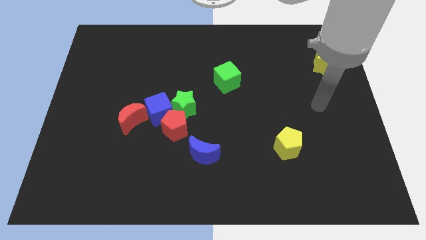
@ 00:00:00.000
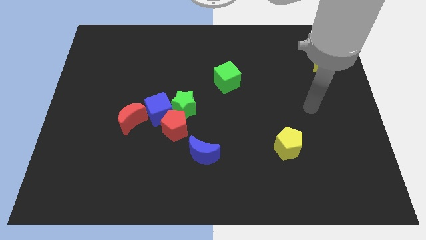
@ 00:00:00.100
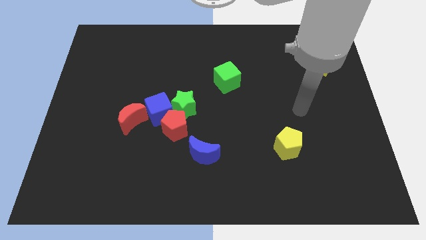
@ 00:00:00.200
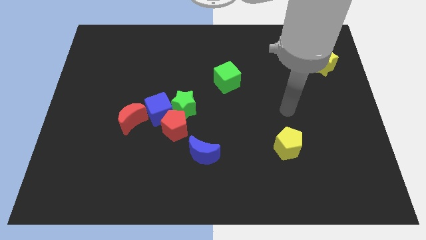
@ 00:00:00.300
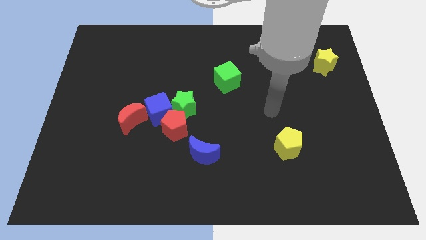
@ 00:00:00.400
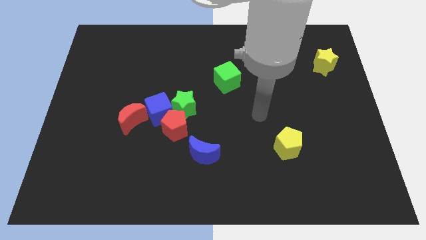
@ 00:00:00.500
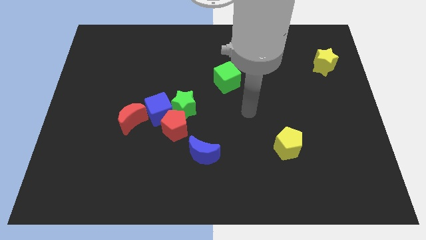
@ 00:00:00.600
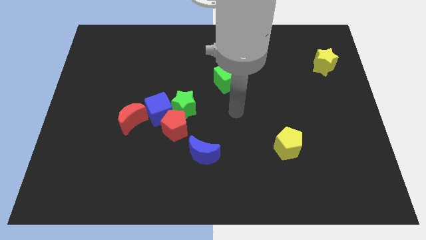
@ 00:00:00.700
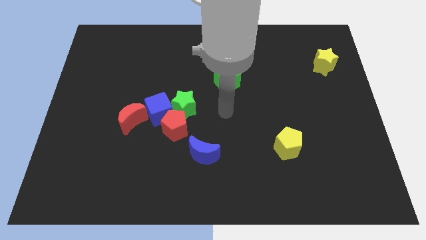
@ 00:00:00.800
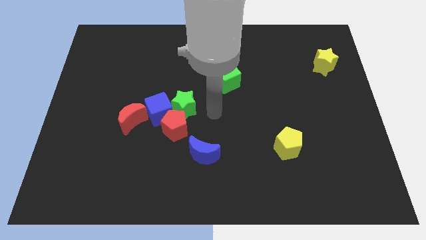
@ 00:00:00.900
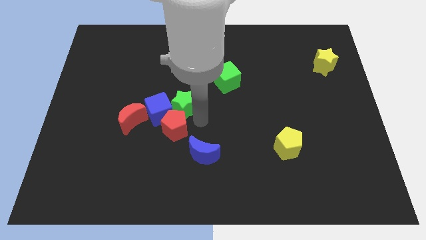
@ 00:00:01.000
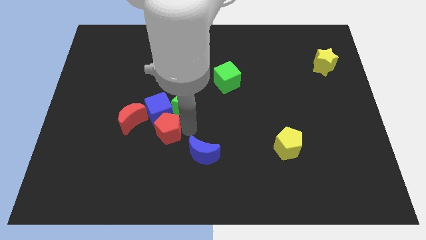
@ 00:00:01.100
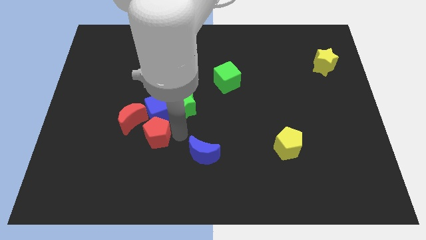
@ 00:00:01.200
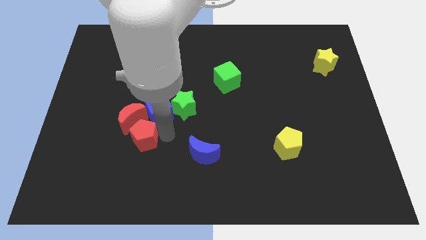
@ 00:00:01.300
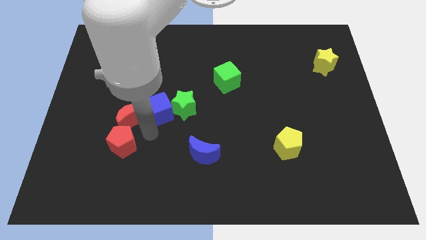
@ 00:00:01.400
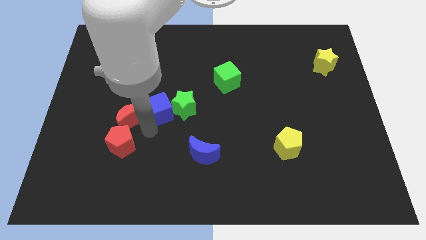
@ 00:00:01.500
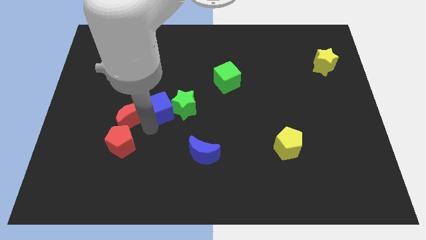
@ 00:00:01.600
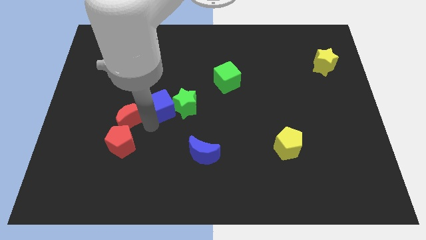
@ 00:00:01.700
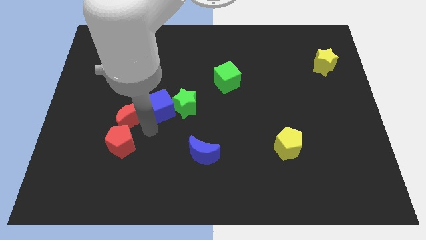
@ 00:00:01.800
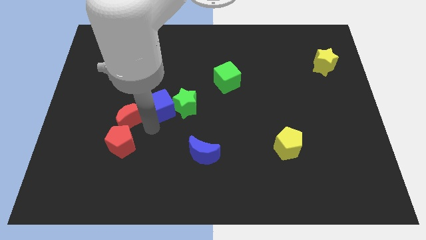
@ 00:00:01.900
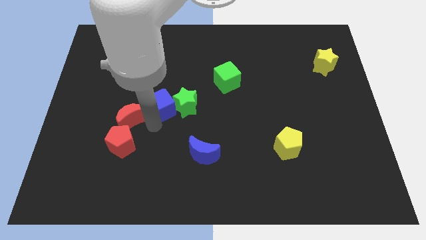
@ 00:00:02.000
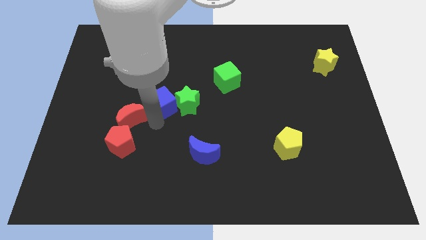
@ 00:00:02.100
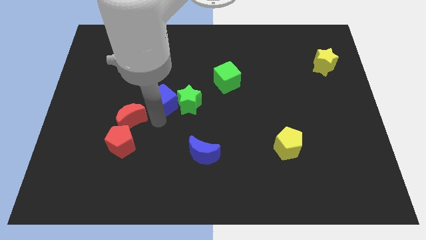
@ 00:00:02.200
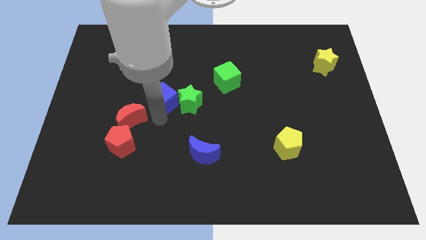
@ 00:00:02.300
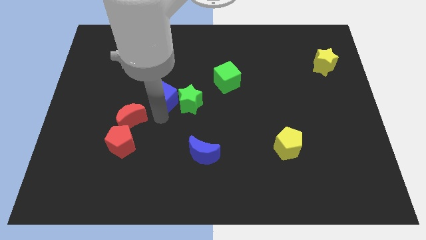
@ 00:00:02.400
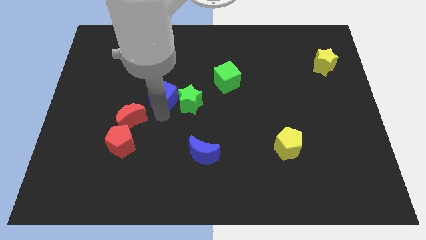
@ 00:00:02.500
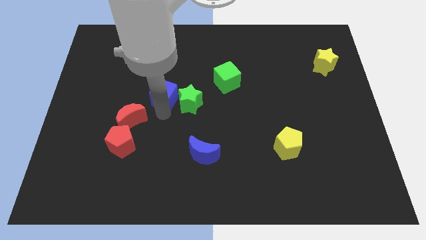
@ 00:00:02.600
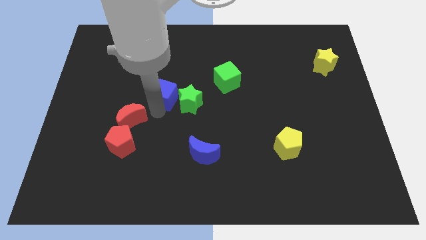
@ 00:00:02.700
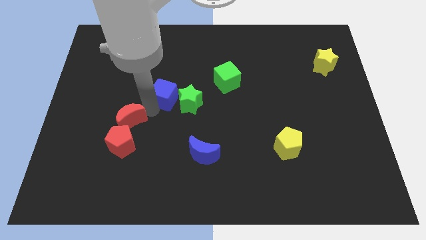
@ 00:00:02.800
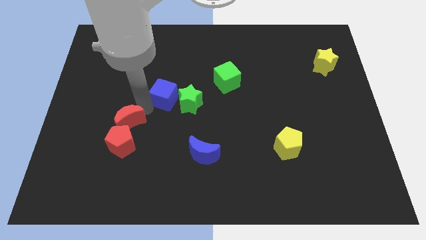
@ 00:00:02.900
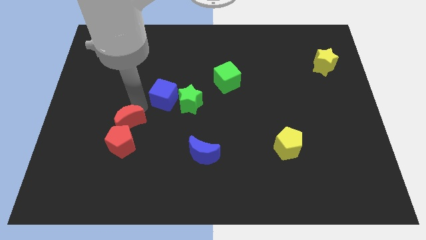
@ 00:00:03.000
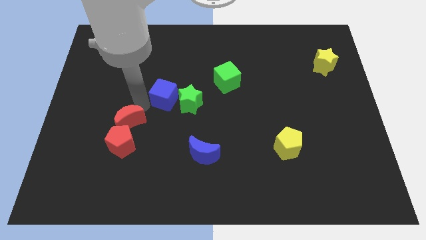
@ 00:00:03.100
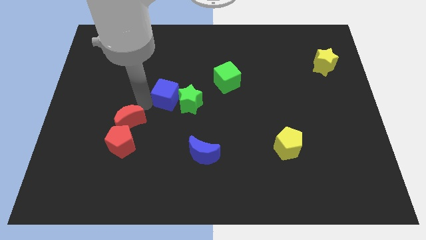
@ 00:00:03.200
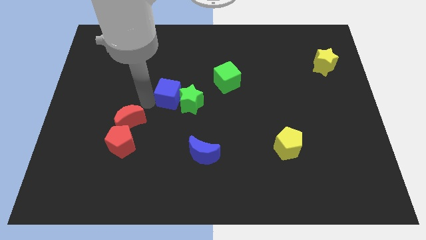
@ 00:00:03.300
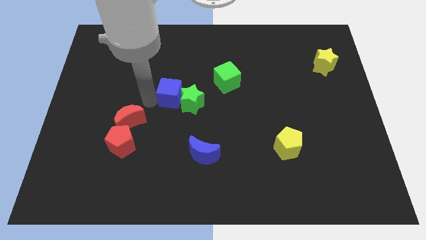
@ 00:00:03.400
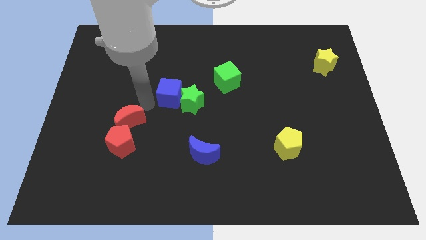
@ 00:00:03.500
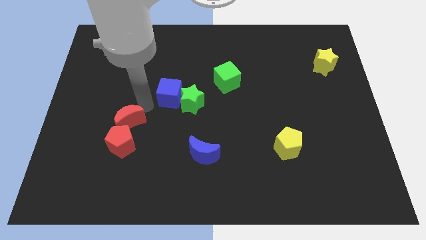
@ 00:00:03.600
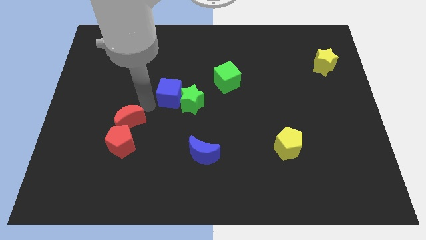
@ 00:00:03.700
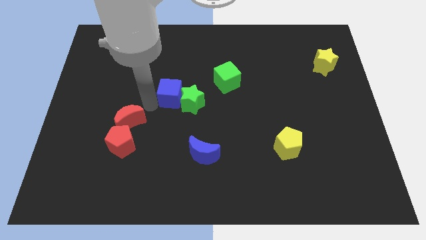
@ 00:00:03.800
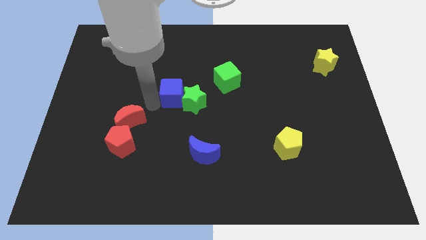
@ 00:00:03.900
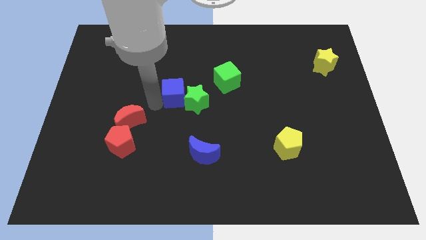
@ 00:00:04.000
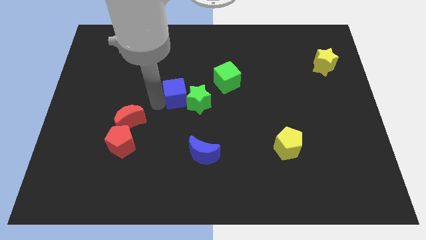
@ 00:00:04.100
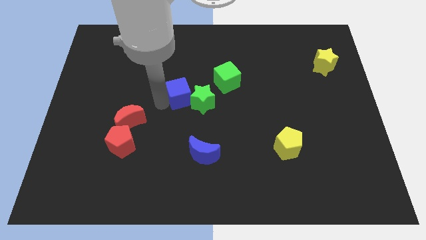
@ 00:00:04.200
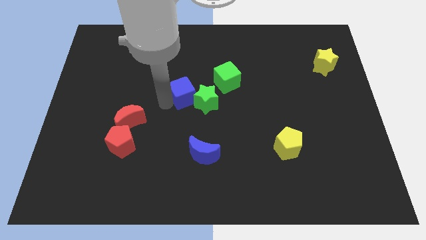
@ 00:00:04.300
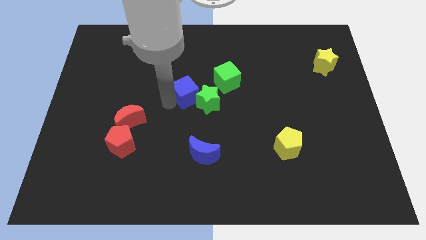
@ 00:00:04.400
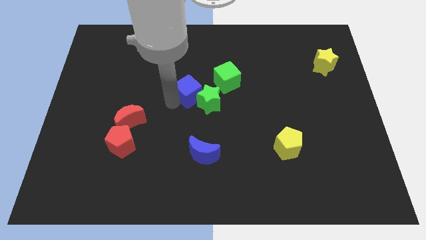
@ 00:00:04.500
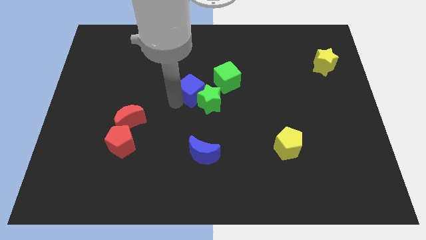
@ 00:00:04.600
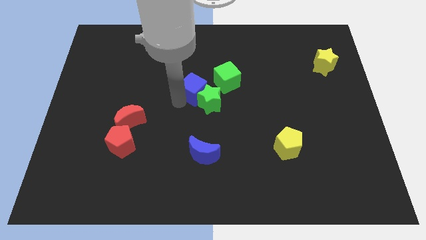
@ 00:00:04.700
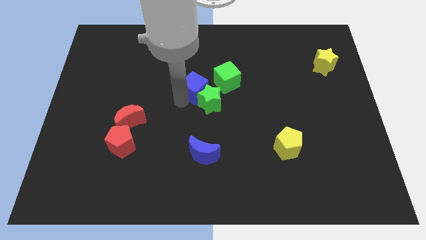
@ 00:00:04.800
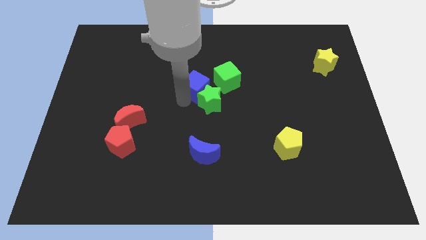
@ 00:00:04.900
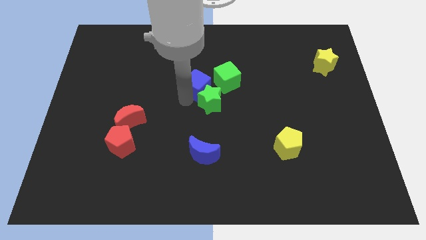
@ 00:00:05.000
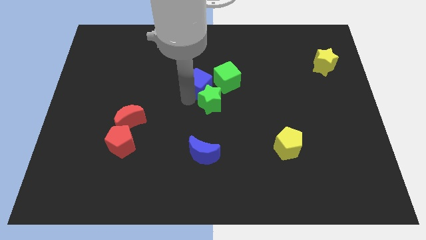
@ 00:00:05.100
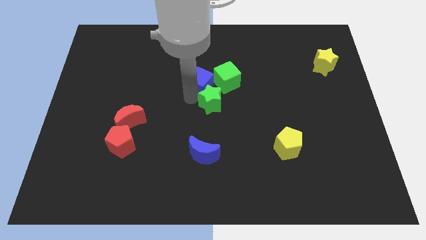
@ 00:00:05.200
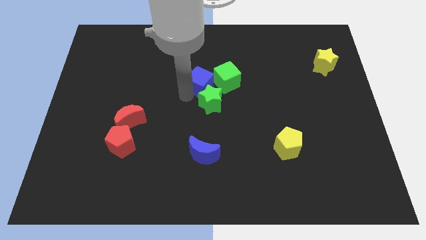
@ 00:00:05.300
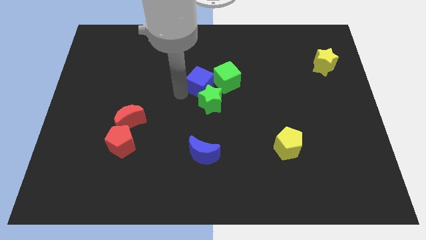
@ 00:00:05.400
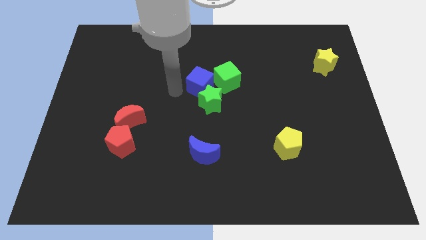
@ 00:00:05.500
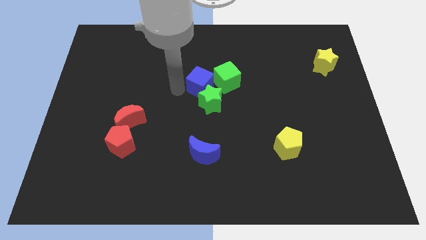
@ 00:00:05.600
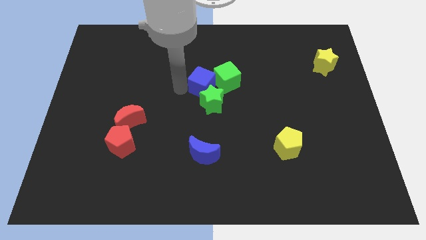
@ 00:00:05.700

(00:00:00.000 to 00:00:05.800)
push the blue cube towards the green cube

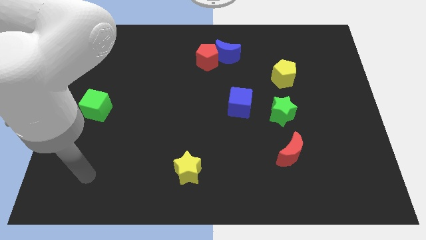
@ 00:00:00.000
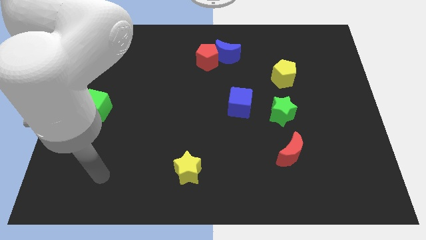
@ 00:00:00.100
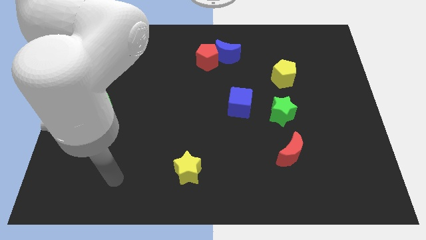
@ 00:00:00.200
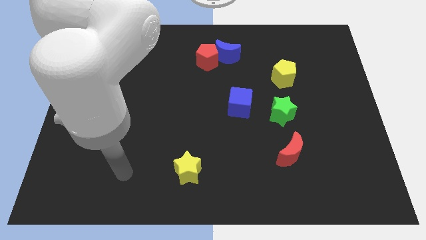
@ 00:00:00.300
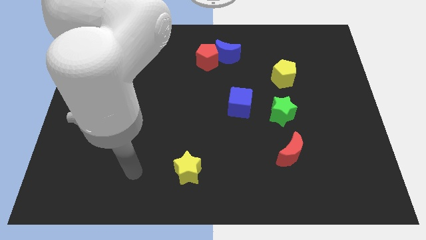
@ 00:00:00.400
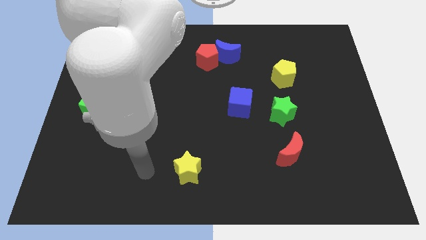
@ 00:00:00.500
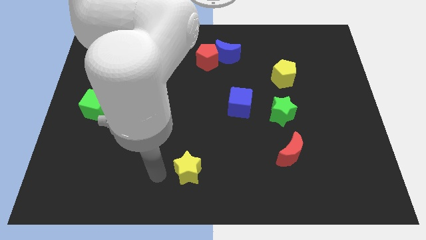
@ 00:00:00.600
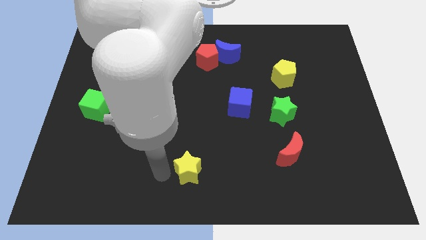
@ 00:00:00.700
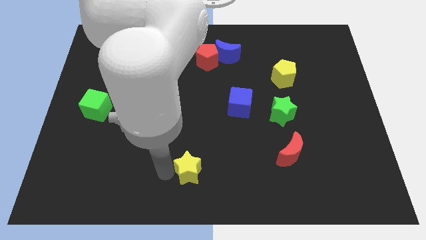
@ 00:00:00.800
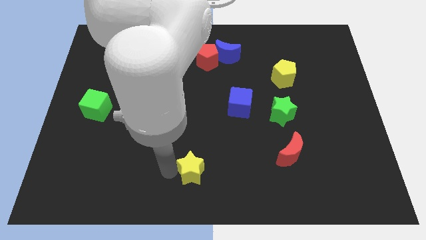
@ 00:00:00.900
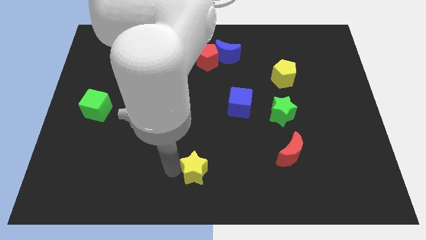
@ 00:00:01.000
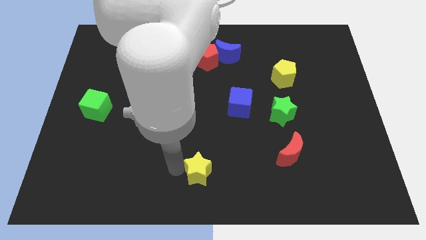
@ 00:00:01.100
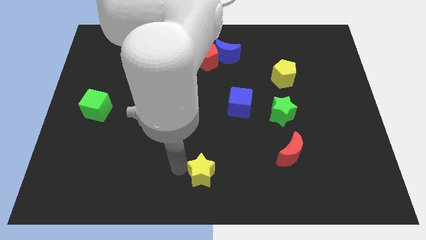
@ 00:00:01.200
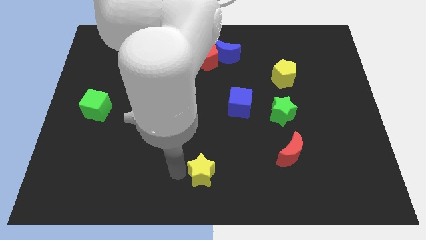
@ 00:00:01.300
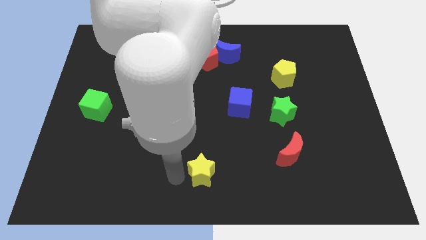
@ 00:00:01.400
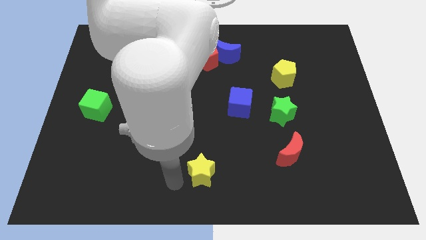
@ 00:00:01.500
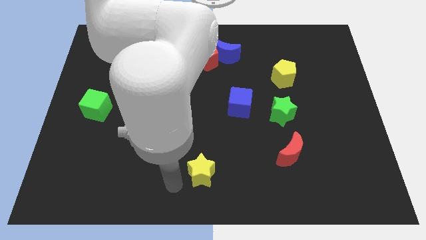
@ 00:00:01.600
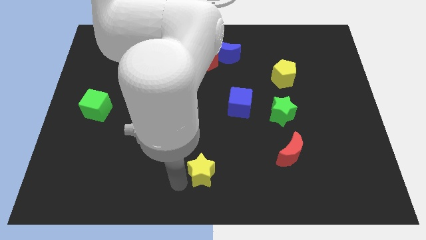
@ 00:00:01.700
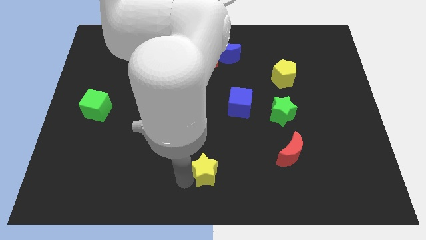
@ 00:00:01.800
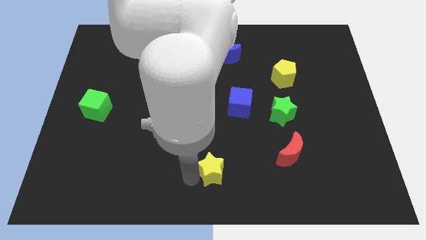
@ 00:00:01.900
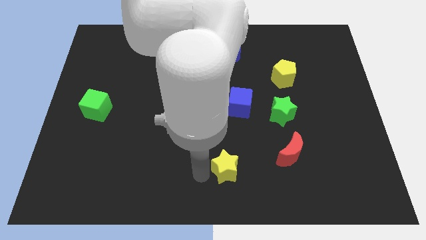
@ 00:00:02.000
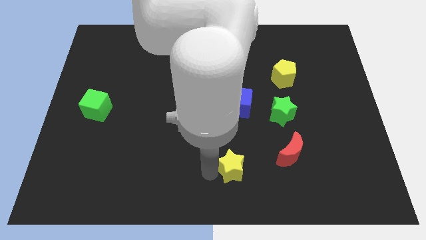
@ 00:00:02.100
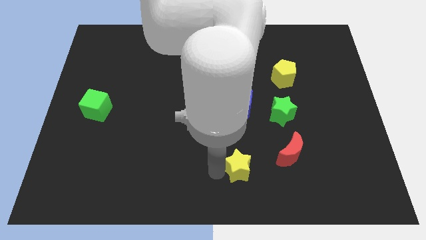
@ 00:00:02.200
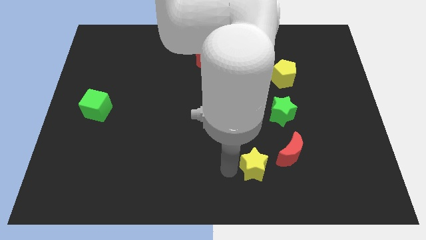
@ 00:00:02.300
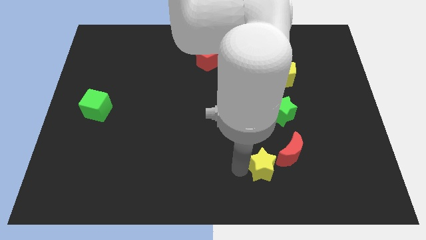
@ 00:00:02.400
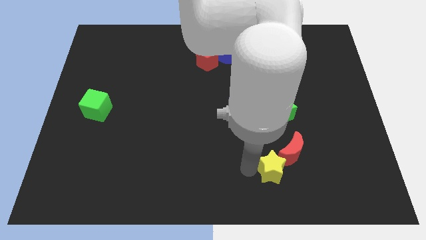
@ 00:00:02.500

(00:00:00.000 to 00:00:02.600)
put the yellow star close to the red moon
